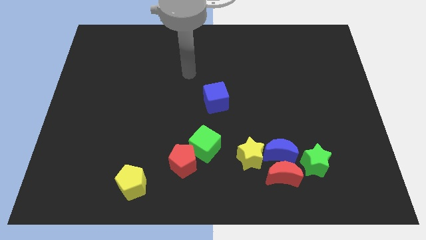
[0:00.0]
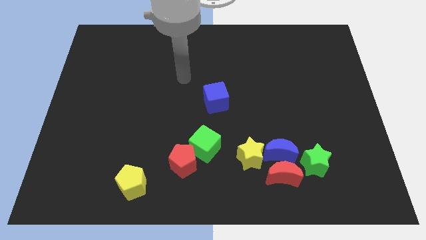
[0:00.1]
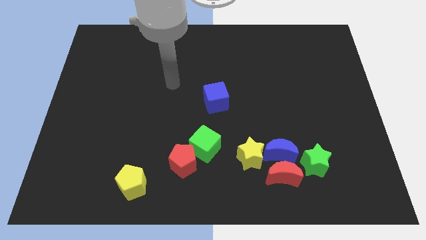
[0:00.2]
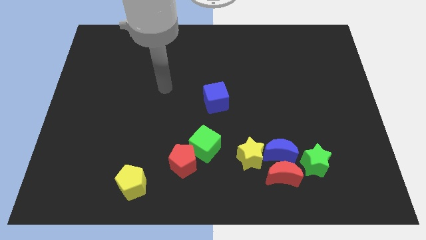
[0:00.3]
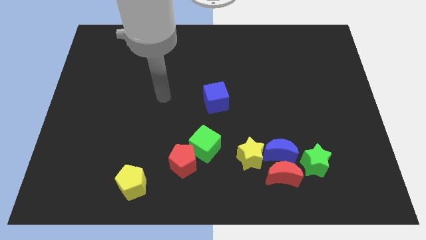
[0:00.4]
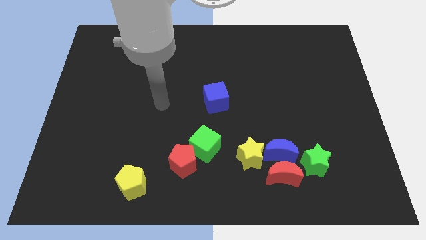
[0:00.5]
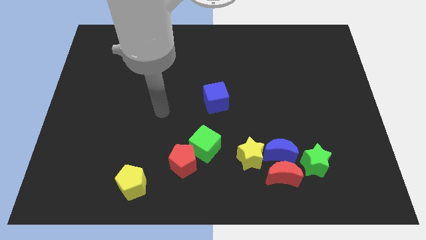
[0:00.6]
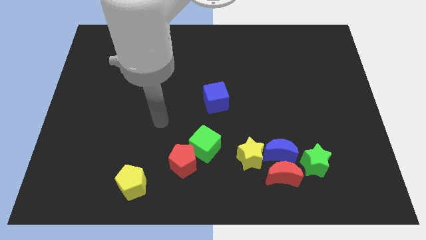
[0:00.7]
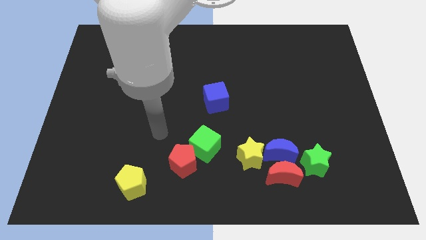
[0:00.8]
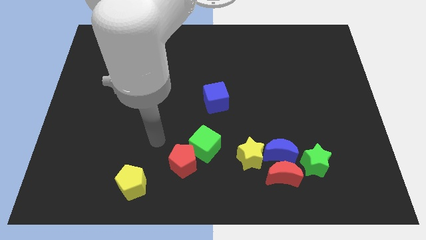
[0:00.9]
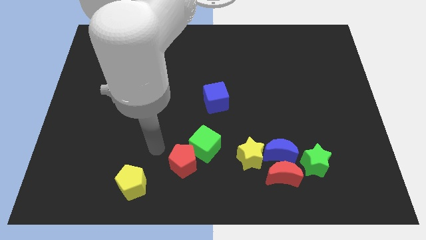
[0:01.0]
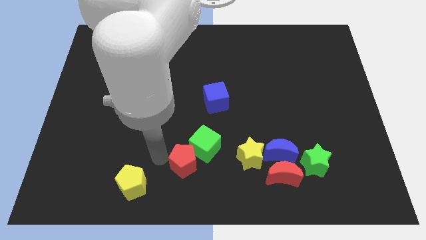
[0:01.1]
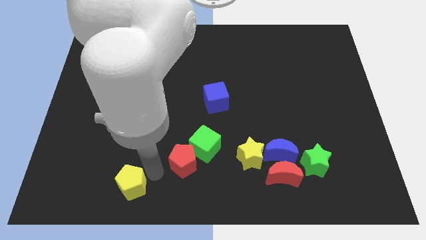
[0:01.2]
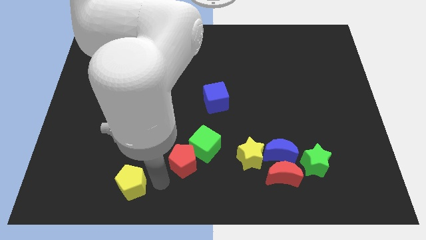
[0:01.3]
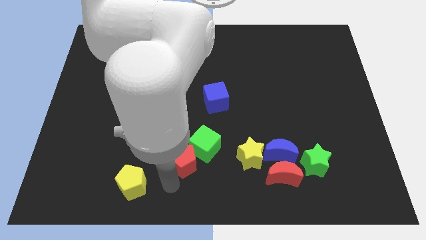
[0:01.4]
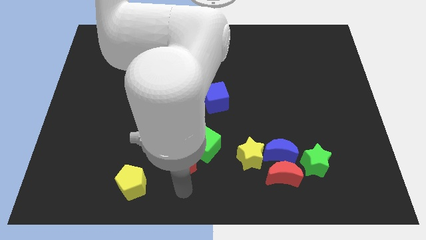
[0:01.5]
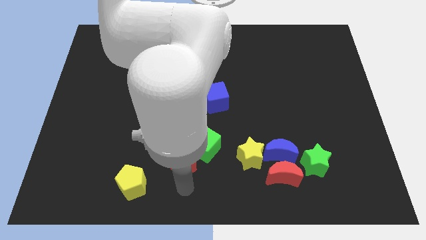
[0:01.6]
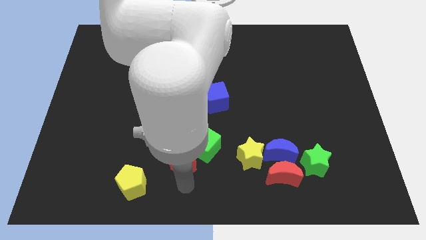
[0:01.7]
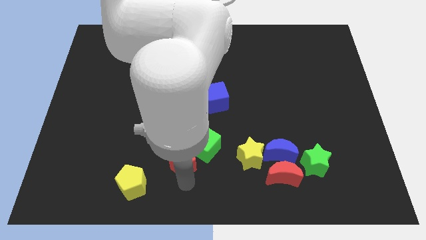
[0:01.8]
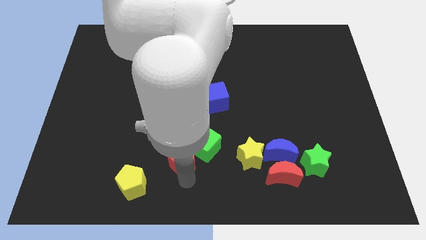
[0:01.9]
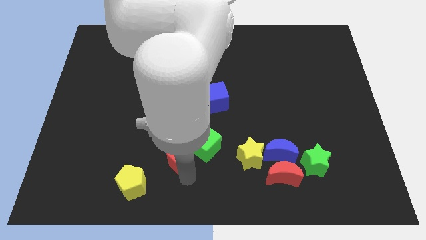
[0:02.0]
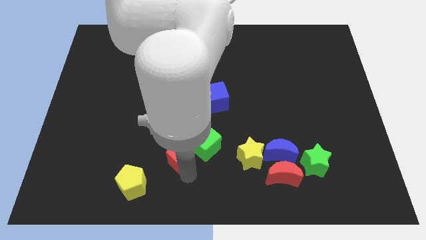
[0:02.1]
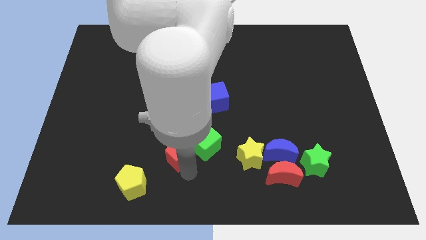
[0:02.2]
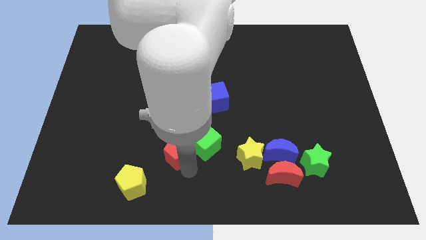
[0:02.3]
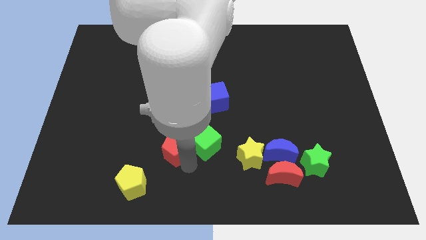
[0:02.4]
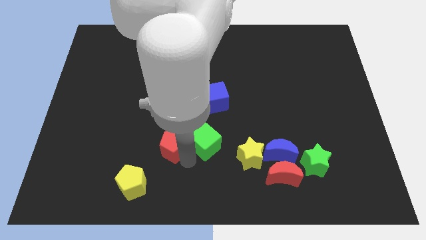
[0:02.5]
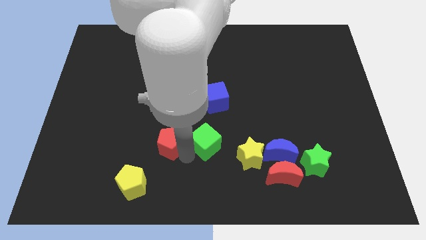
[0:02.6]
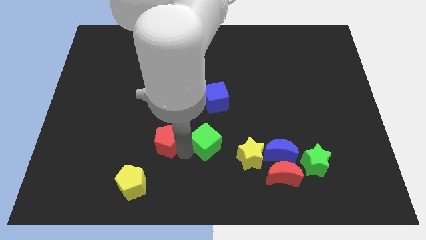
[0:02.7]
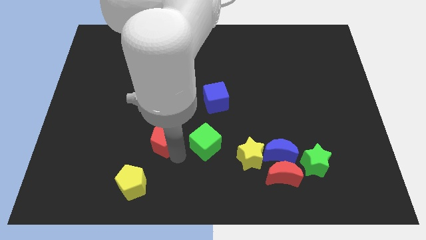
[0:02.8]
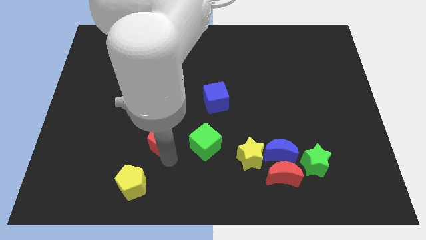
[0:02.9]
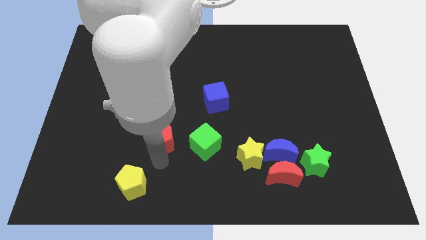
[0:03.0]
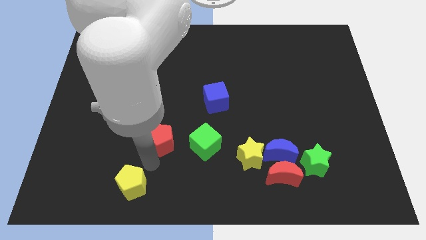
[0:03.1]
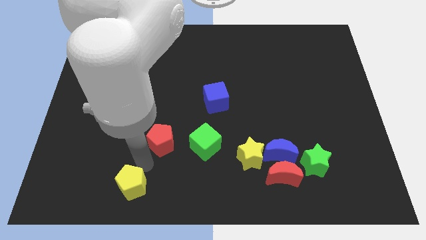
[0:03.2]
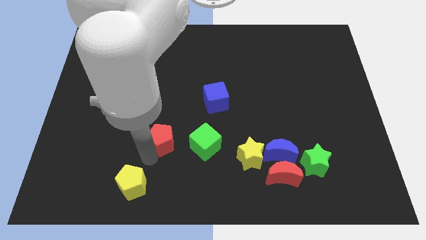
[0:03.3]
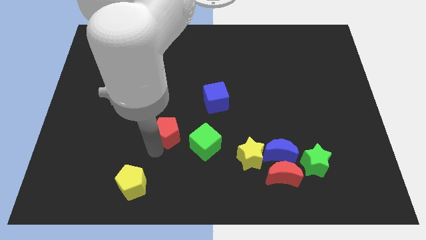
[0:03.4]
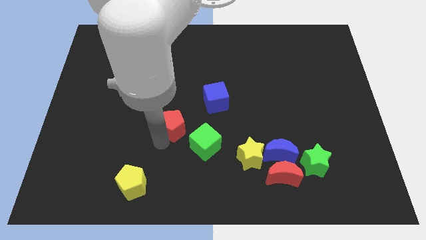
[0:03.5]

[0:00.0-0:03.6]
slide the red pentagon upwards slightly

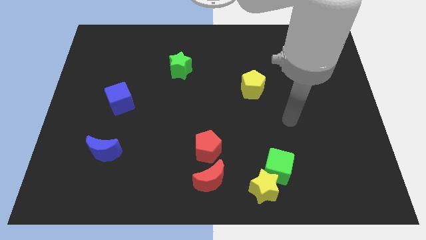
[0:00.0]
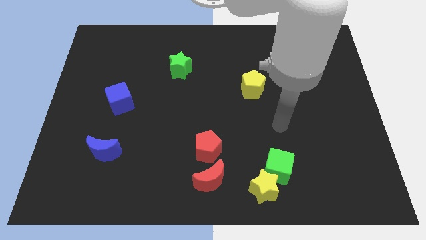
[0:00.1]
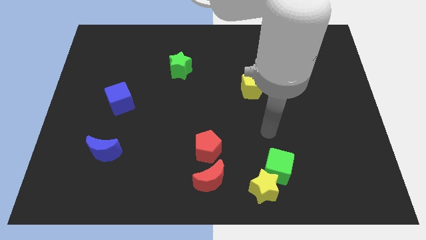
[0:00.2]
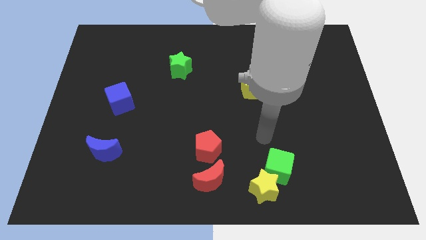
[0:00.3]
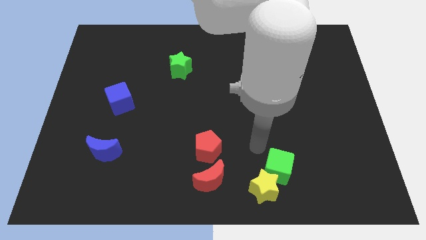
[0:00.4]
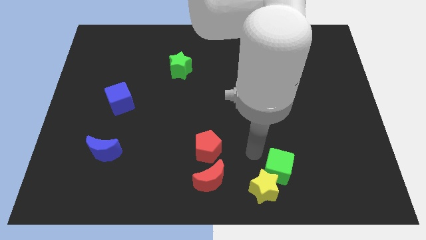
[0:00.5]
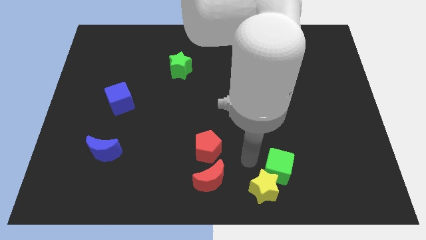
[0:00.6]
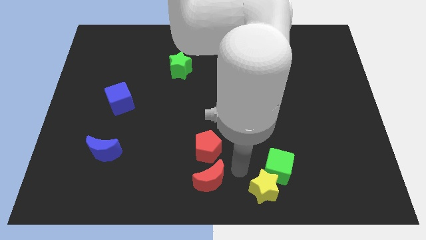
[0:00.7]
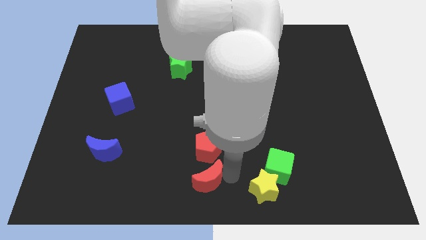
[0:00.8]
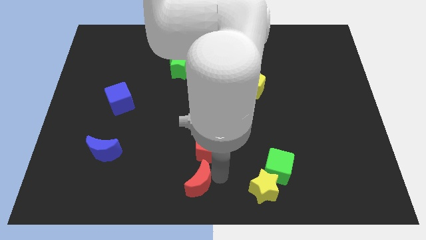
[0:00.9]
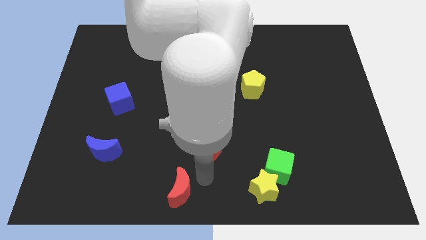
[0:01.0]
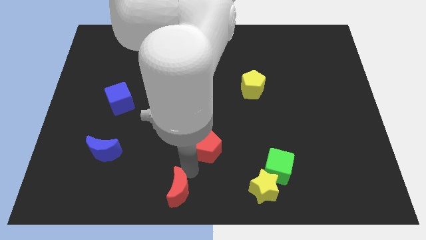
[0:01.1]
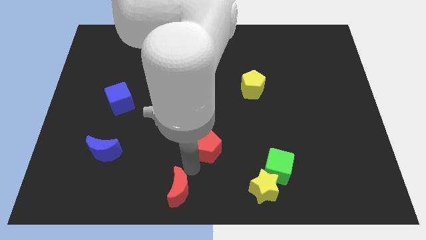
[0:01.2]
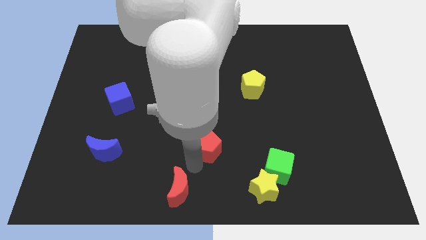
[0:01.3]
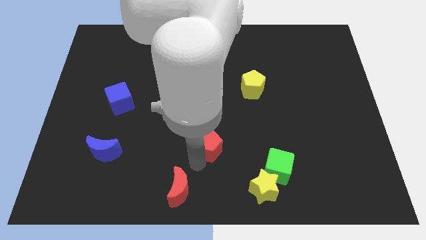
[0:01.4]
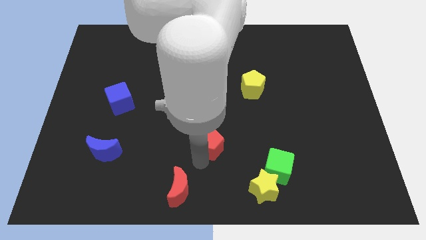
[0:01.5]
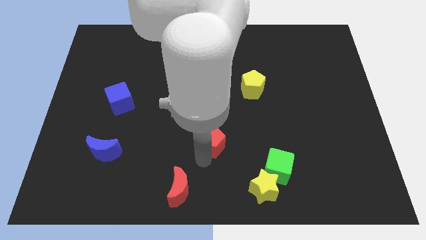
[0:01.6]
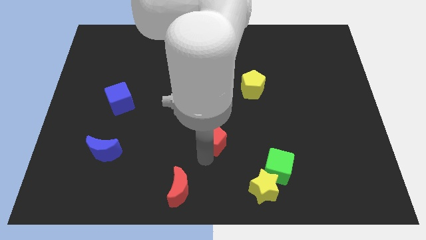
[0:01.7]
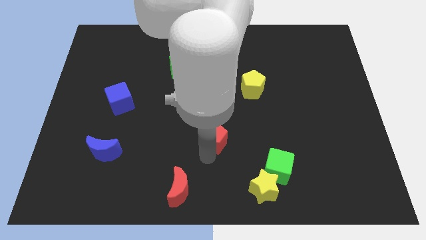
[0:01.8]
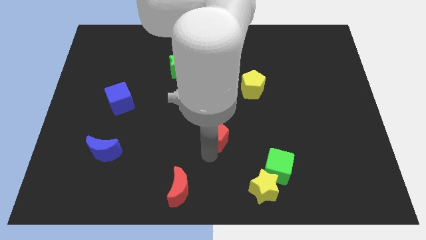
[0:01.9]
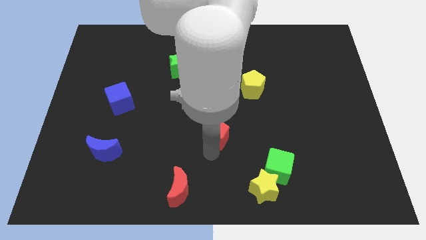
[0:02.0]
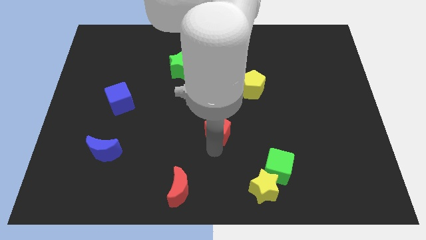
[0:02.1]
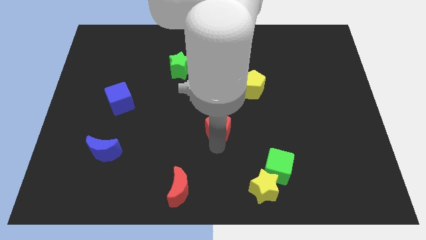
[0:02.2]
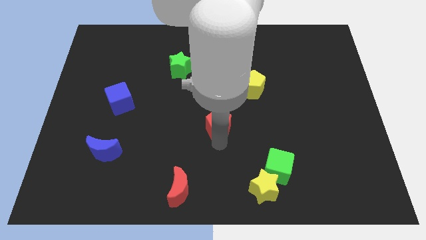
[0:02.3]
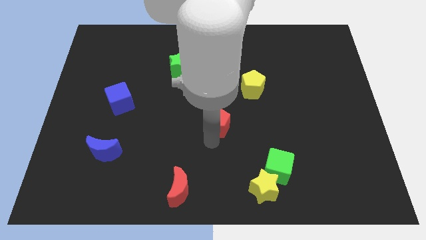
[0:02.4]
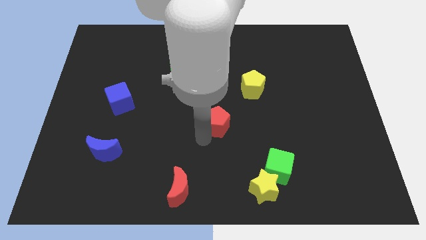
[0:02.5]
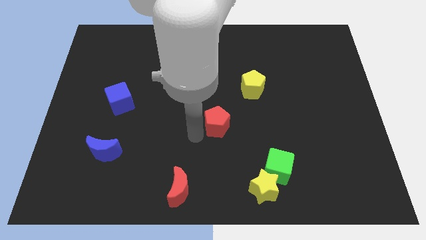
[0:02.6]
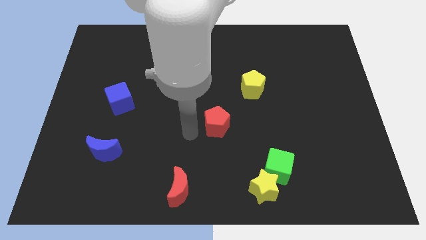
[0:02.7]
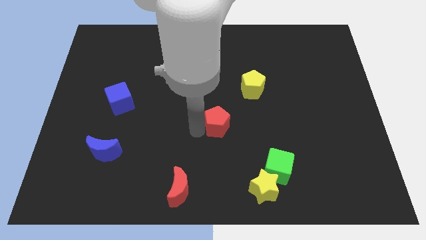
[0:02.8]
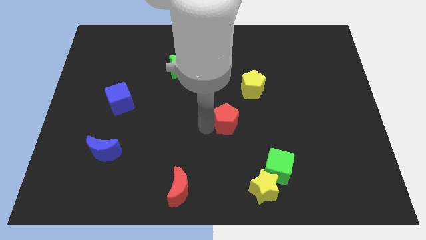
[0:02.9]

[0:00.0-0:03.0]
move the red pentagon up and then to the right a bit

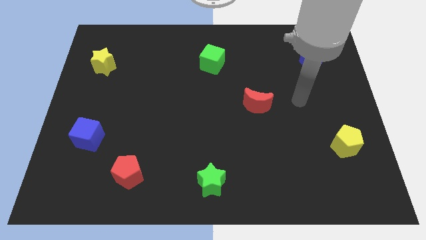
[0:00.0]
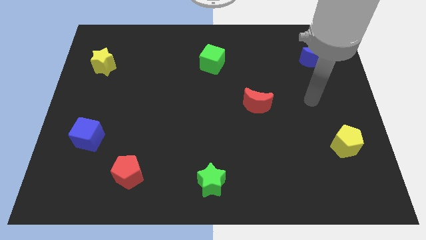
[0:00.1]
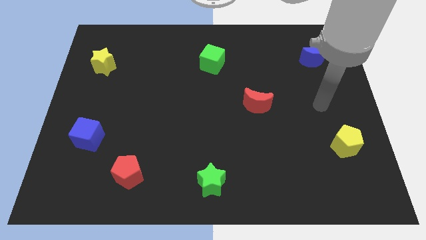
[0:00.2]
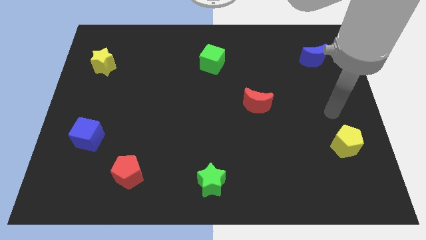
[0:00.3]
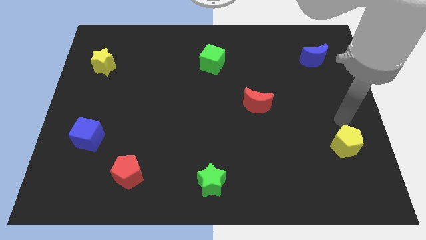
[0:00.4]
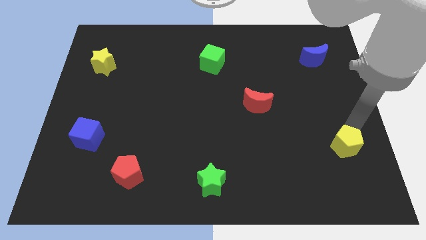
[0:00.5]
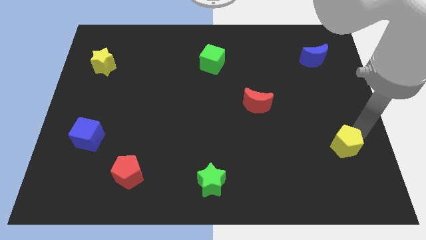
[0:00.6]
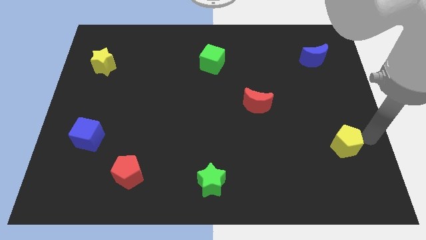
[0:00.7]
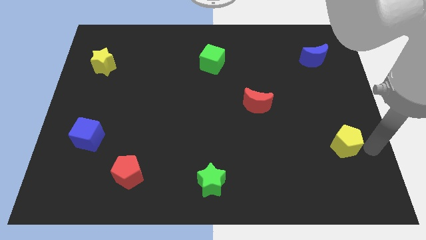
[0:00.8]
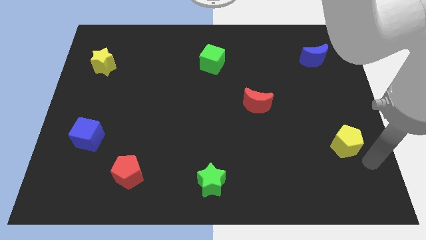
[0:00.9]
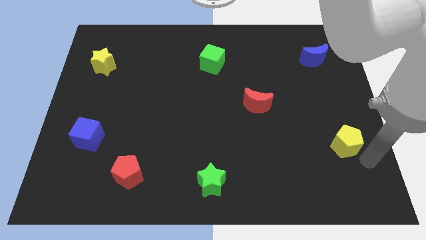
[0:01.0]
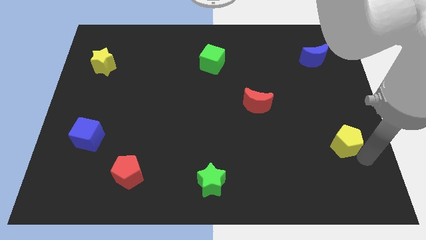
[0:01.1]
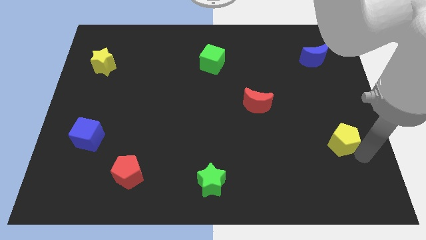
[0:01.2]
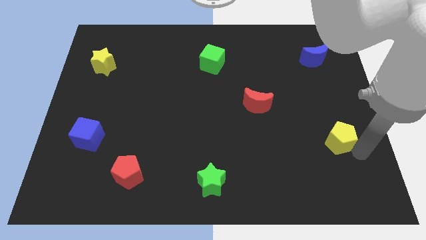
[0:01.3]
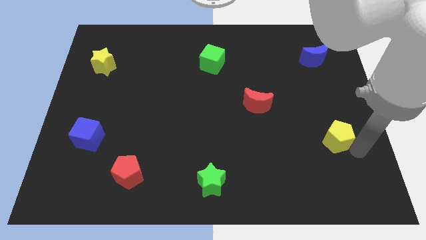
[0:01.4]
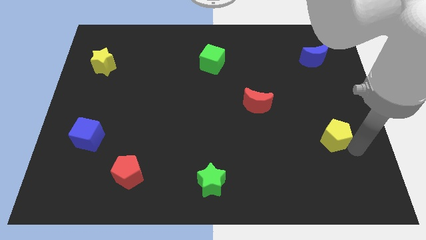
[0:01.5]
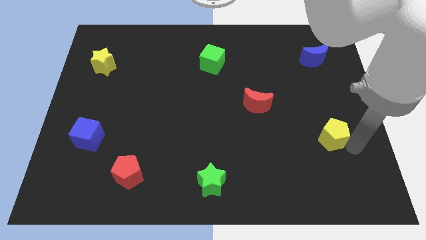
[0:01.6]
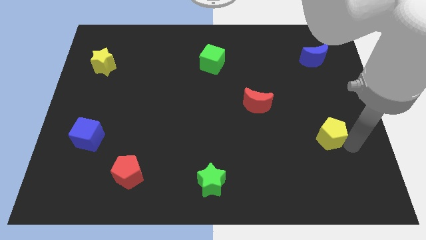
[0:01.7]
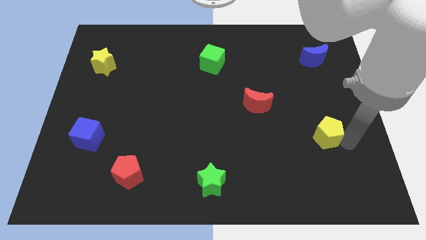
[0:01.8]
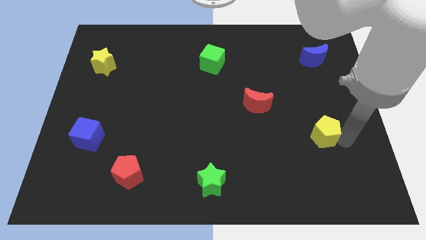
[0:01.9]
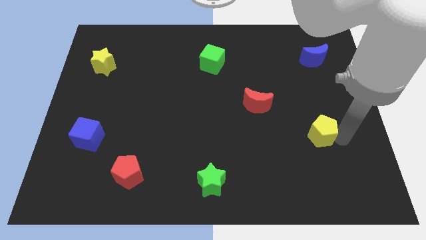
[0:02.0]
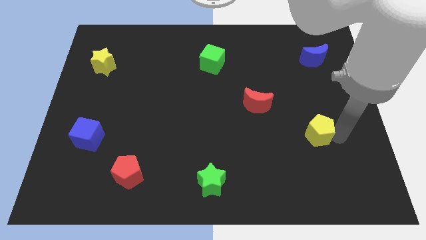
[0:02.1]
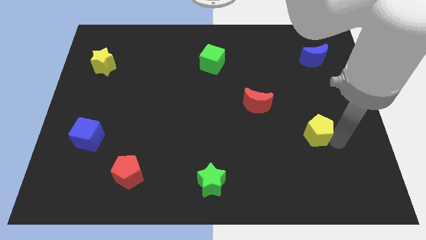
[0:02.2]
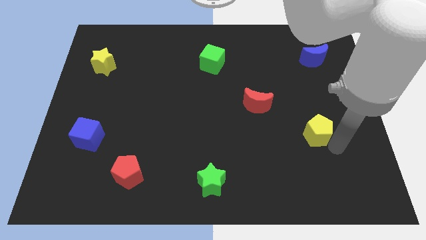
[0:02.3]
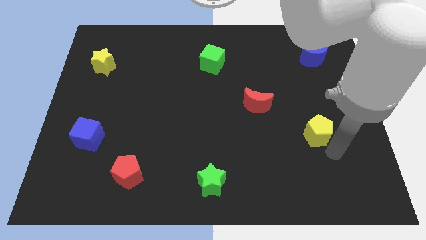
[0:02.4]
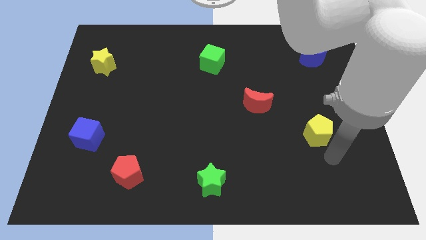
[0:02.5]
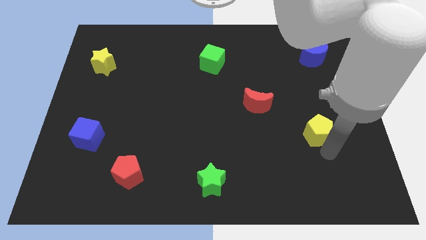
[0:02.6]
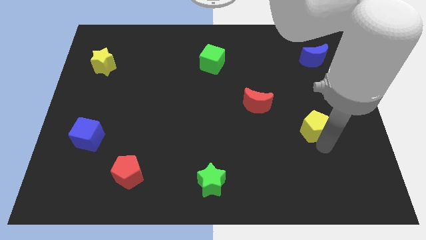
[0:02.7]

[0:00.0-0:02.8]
push the yellow pentagon somewhat diagonally up and to the left
